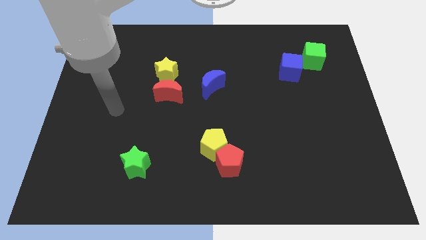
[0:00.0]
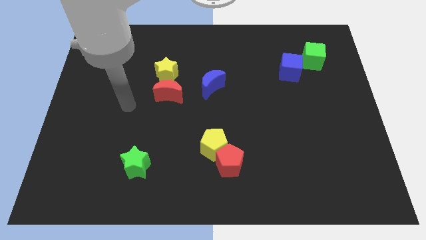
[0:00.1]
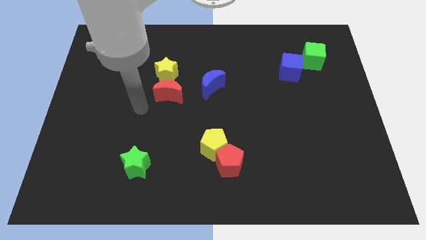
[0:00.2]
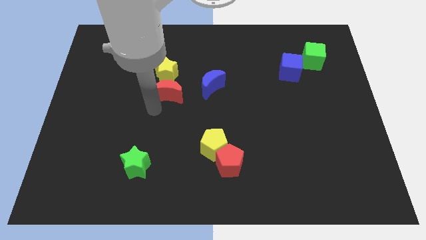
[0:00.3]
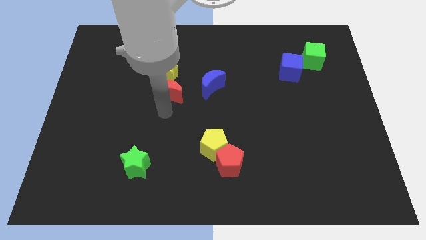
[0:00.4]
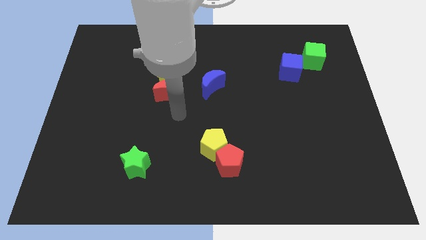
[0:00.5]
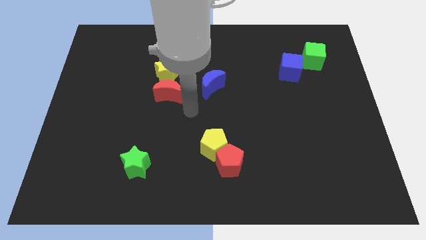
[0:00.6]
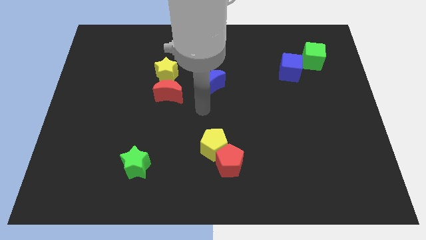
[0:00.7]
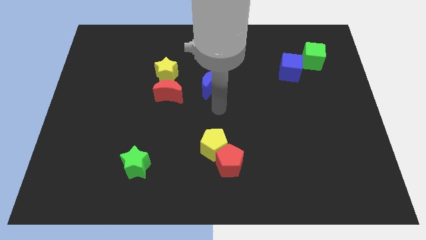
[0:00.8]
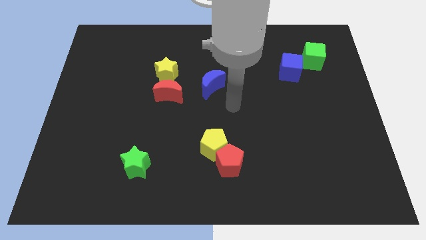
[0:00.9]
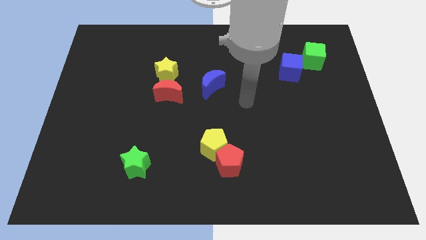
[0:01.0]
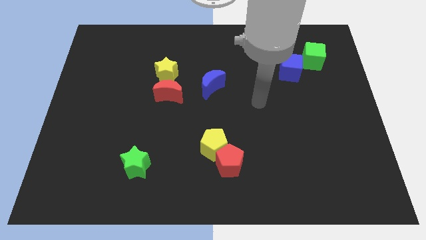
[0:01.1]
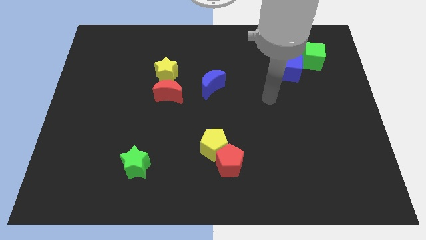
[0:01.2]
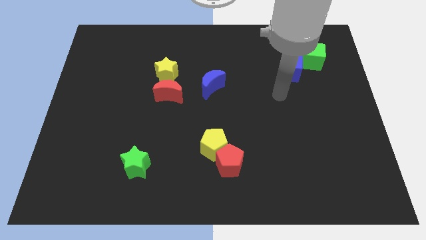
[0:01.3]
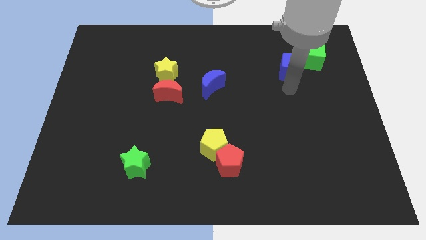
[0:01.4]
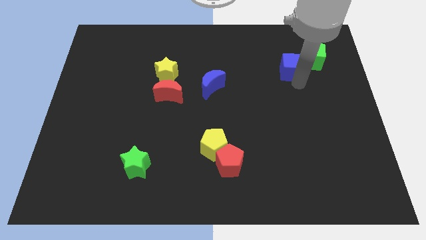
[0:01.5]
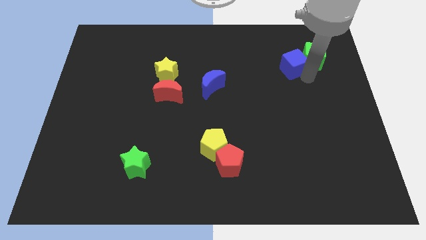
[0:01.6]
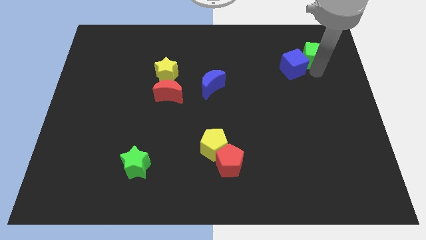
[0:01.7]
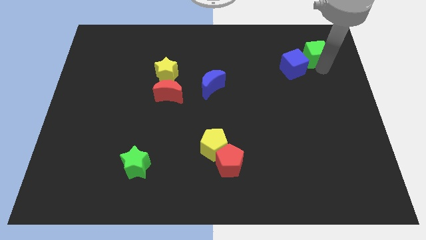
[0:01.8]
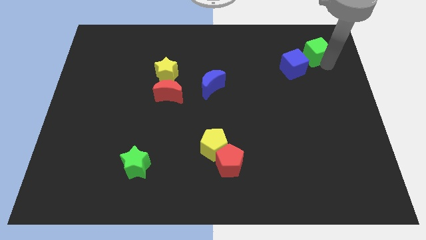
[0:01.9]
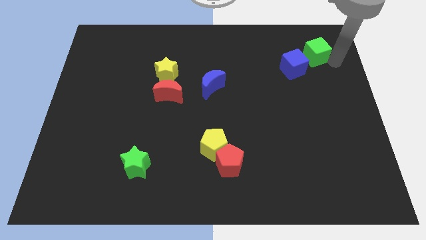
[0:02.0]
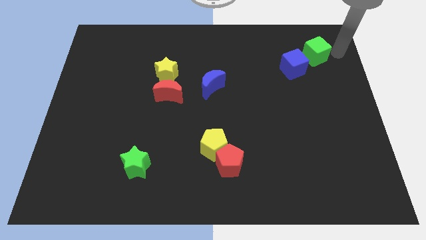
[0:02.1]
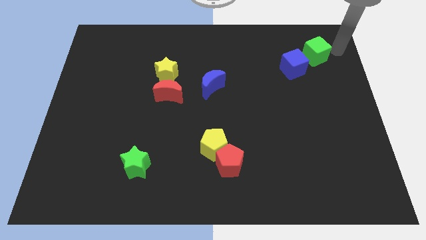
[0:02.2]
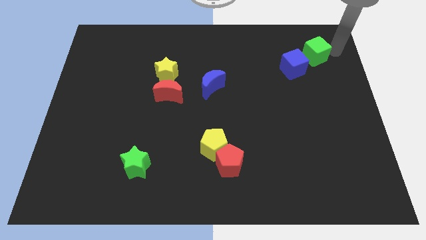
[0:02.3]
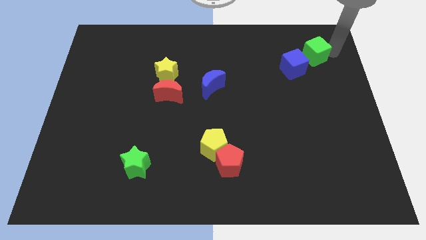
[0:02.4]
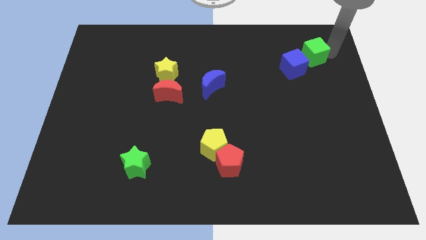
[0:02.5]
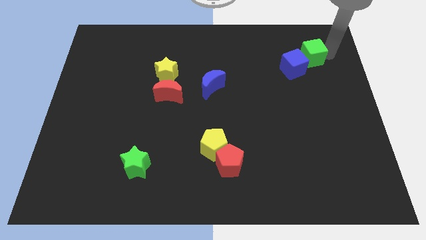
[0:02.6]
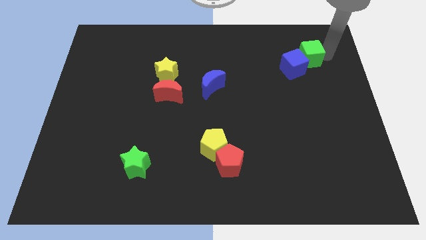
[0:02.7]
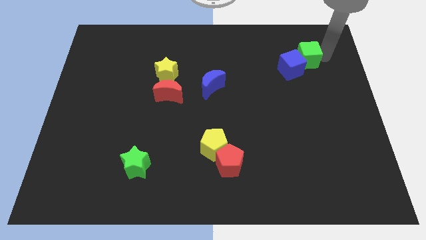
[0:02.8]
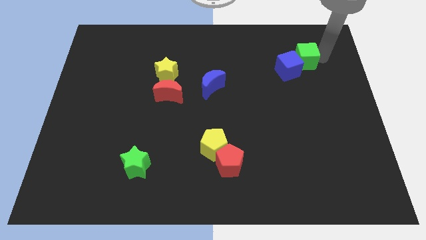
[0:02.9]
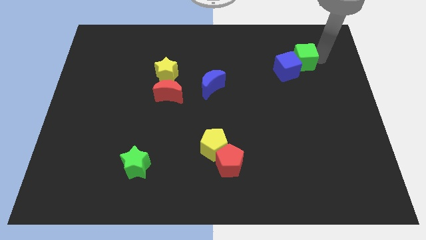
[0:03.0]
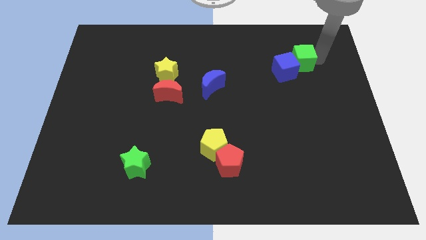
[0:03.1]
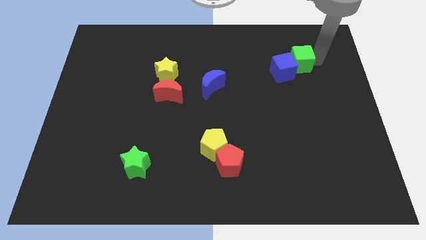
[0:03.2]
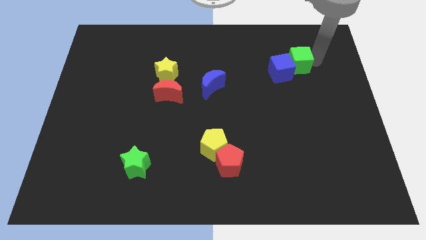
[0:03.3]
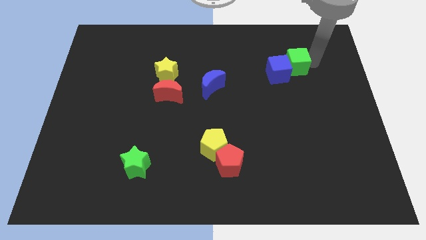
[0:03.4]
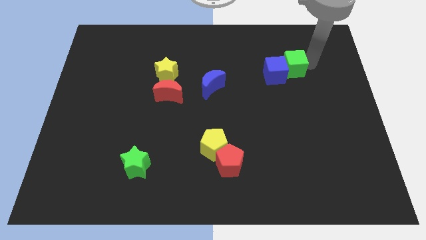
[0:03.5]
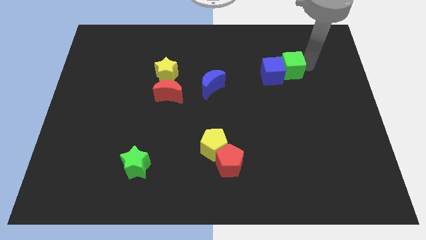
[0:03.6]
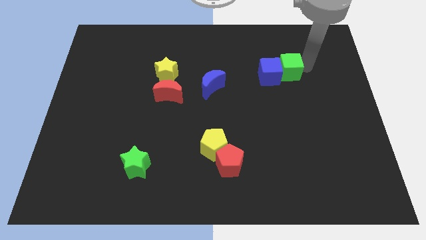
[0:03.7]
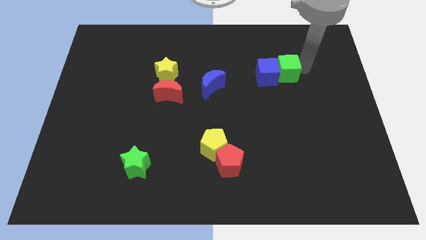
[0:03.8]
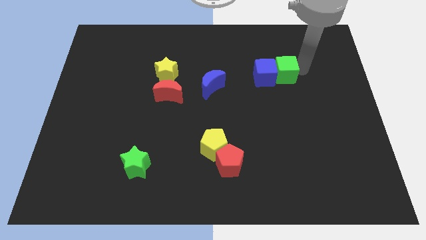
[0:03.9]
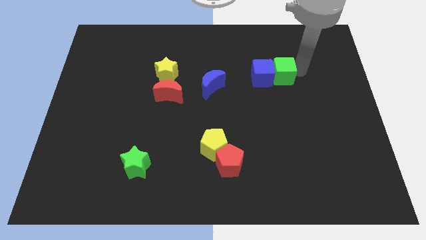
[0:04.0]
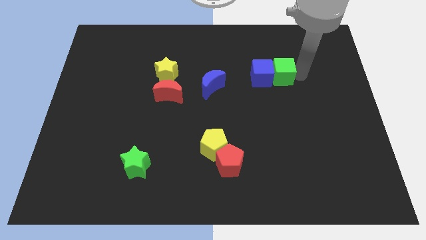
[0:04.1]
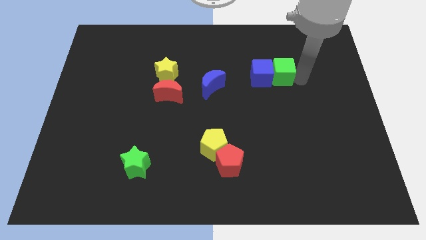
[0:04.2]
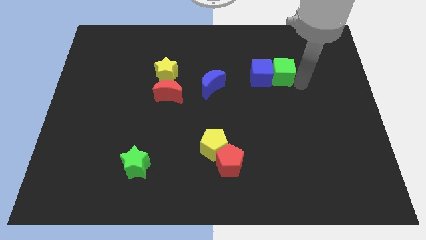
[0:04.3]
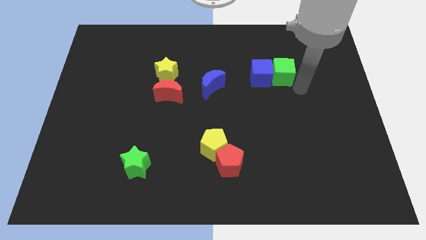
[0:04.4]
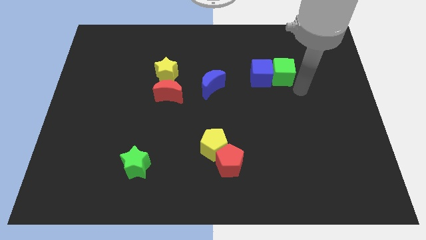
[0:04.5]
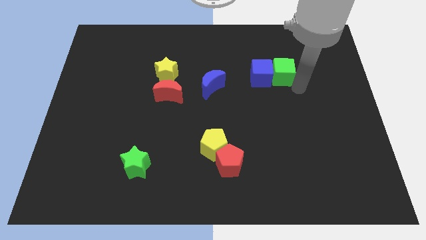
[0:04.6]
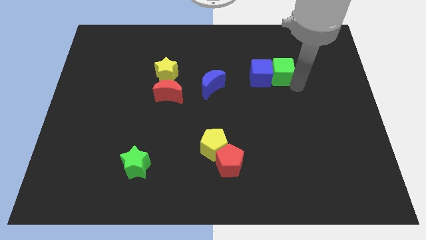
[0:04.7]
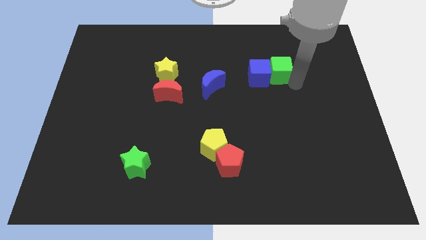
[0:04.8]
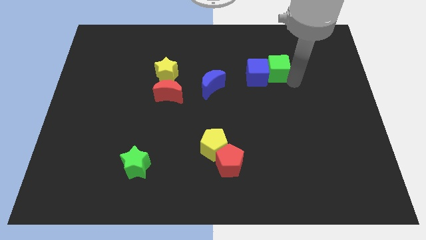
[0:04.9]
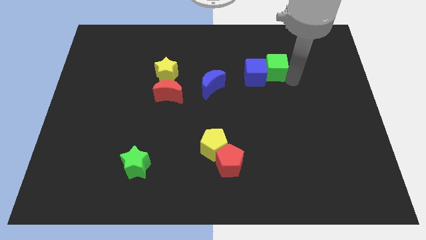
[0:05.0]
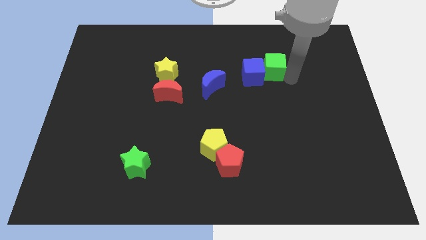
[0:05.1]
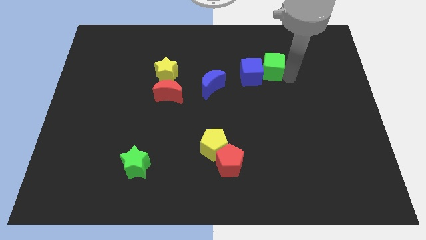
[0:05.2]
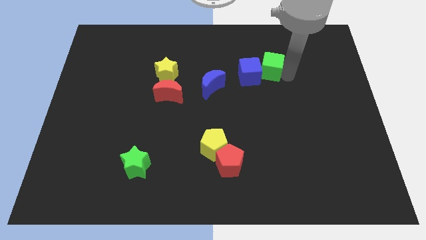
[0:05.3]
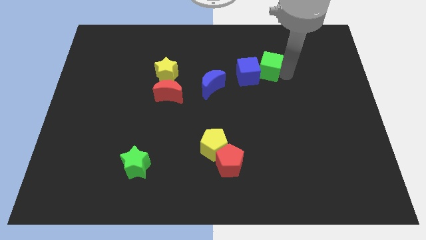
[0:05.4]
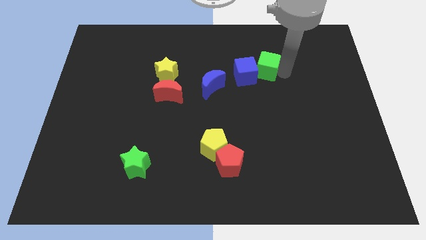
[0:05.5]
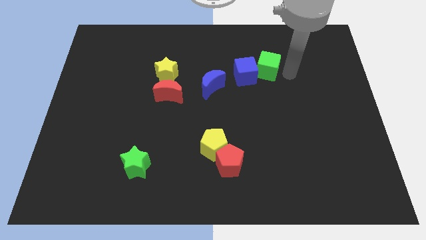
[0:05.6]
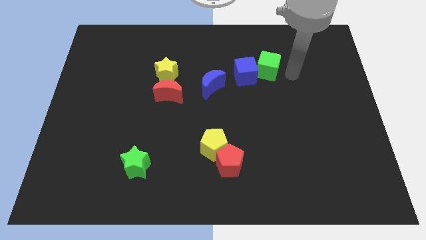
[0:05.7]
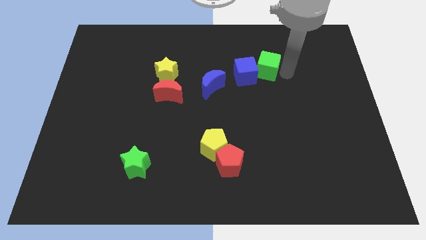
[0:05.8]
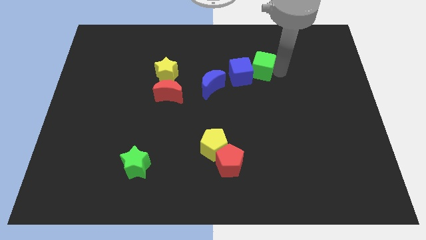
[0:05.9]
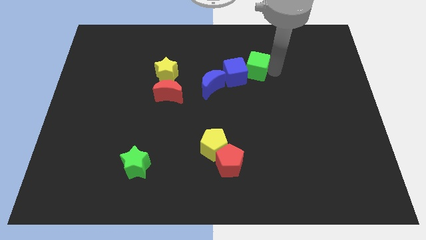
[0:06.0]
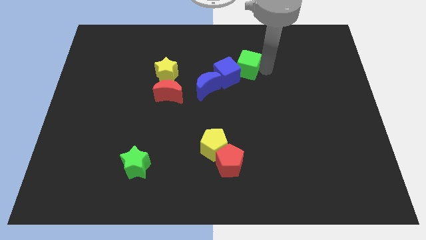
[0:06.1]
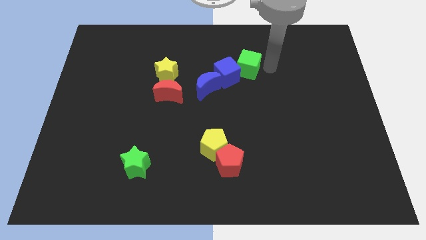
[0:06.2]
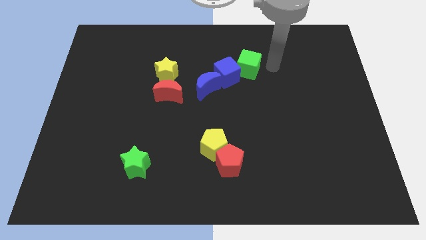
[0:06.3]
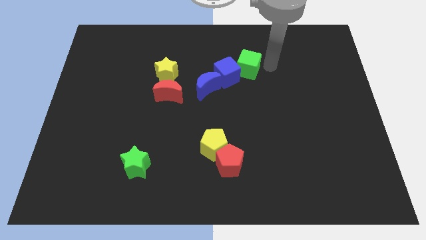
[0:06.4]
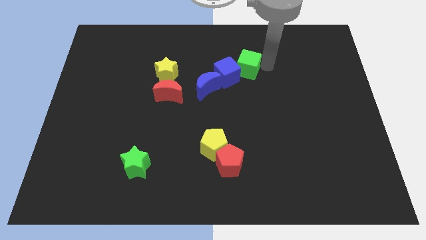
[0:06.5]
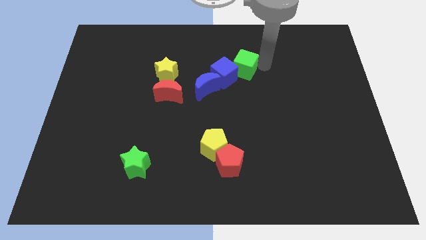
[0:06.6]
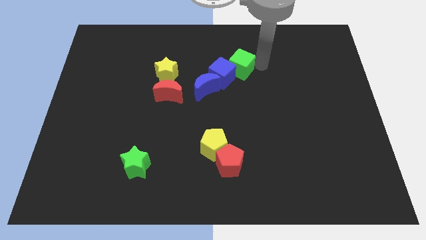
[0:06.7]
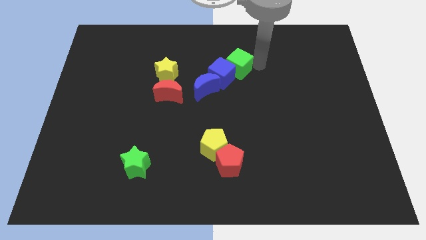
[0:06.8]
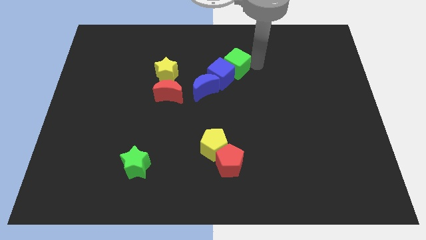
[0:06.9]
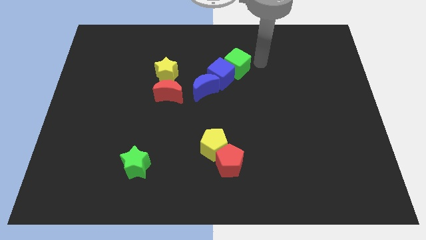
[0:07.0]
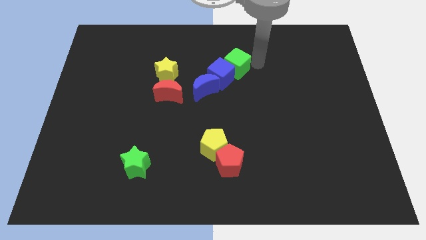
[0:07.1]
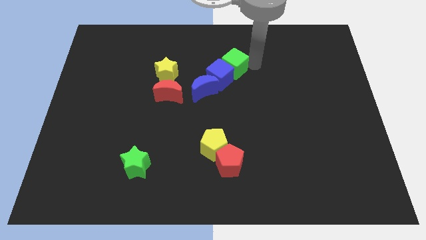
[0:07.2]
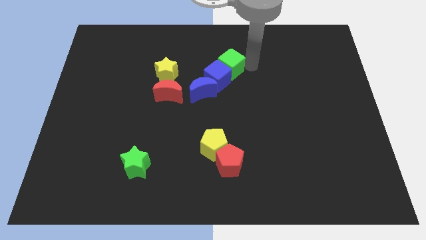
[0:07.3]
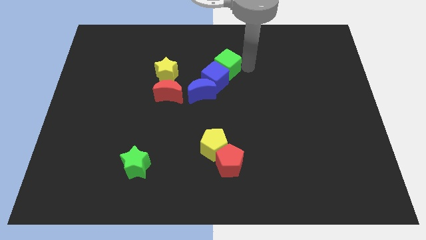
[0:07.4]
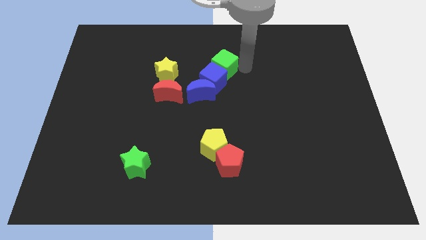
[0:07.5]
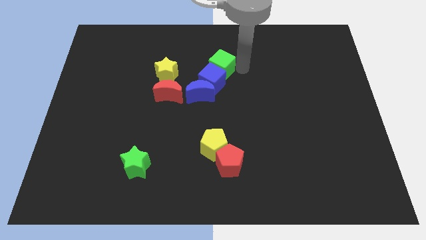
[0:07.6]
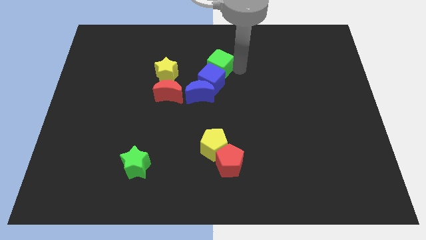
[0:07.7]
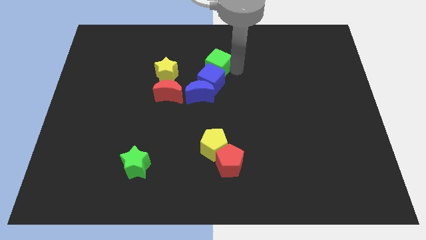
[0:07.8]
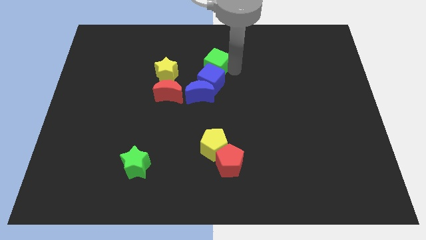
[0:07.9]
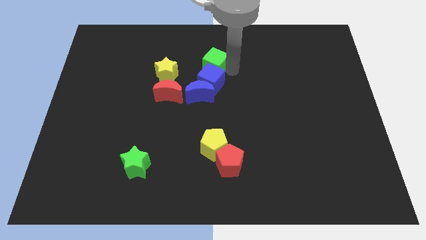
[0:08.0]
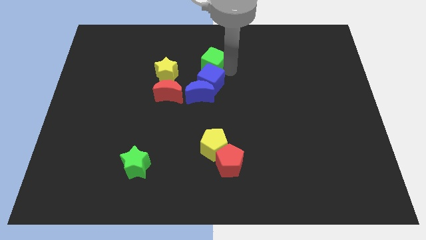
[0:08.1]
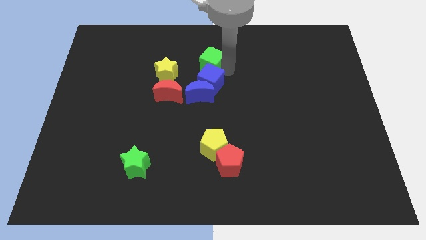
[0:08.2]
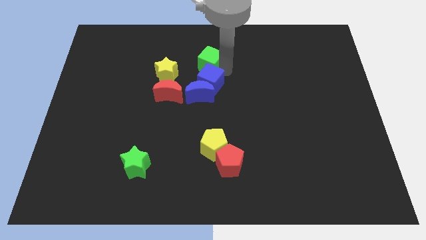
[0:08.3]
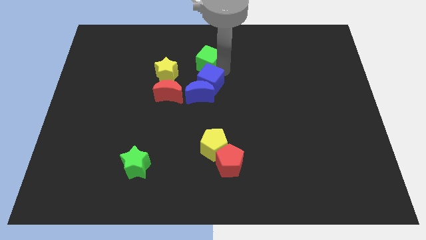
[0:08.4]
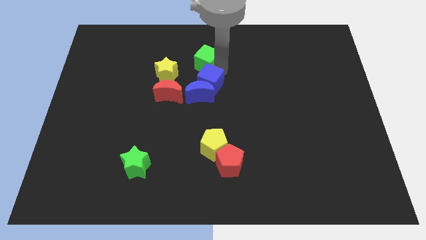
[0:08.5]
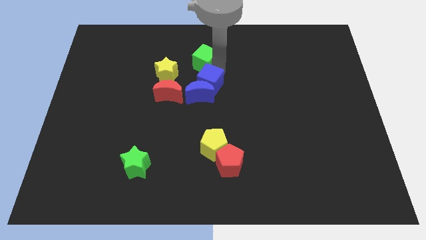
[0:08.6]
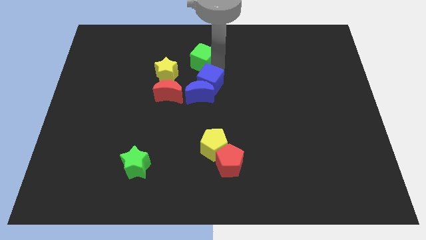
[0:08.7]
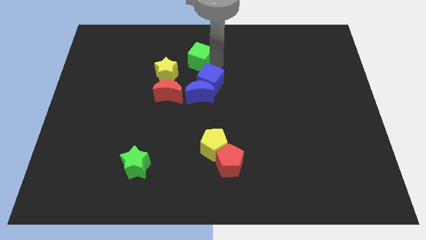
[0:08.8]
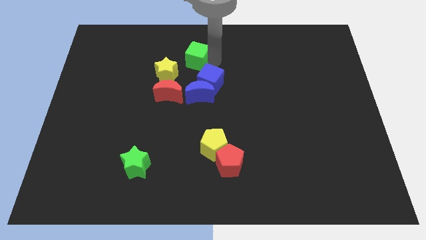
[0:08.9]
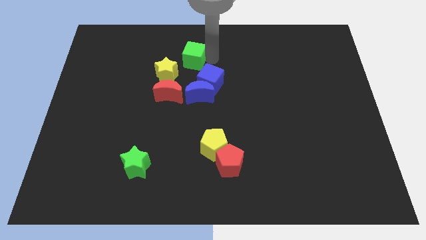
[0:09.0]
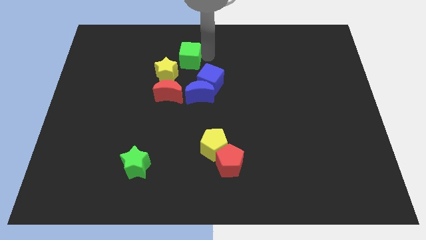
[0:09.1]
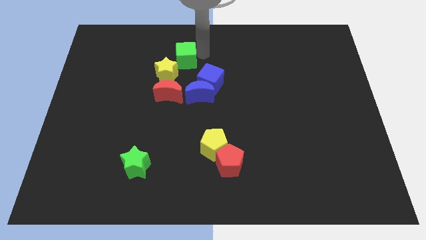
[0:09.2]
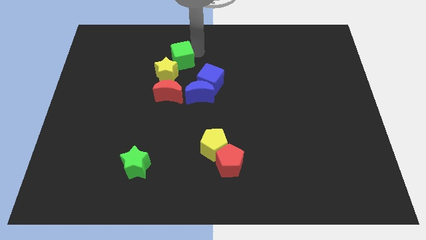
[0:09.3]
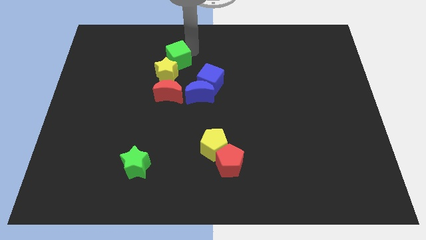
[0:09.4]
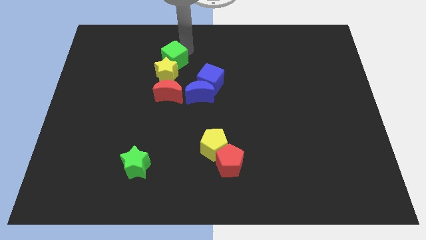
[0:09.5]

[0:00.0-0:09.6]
move the green cube towards the yellow star
